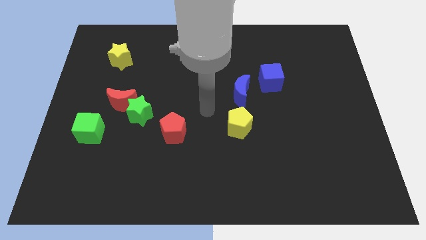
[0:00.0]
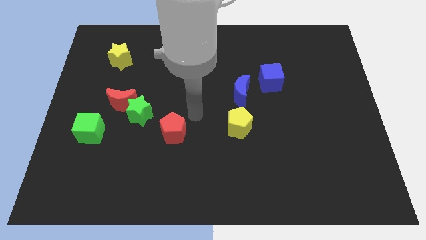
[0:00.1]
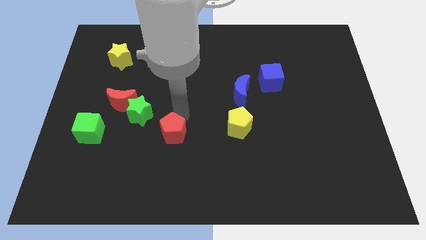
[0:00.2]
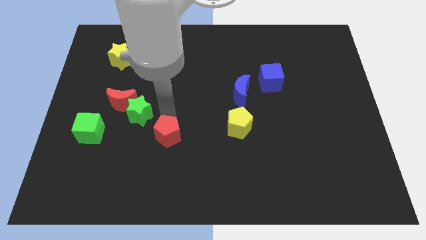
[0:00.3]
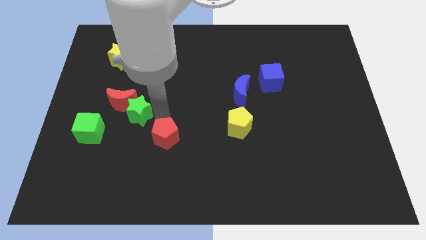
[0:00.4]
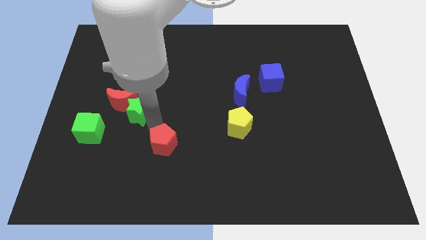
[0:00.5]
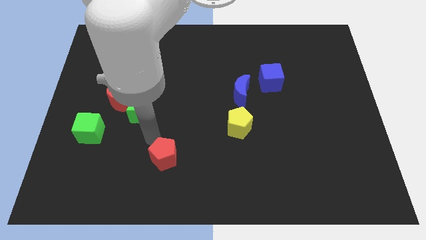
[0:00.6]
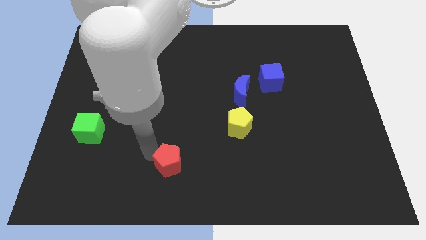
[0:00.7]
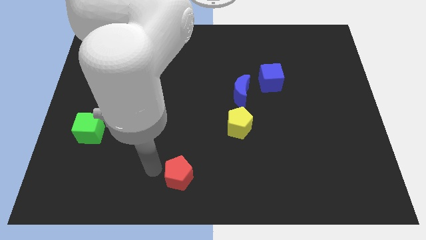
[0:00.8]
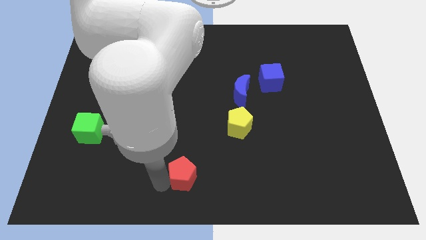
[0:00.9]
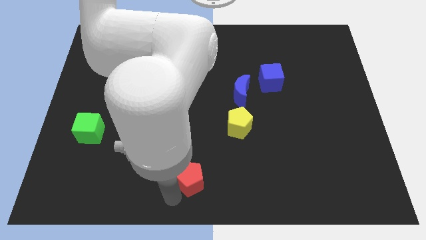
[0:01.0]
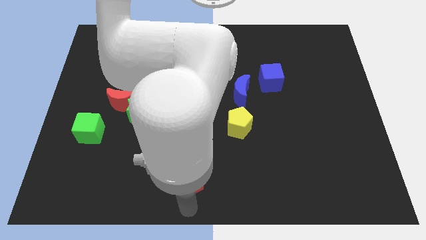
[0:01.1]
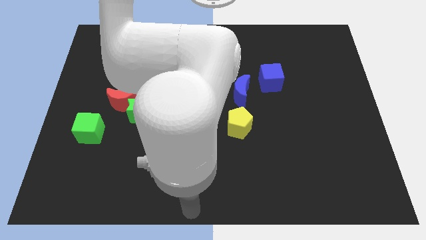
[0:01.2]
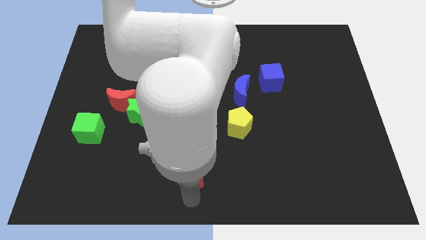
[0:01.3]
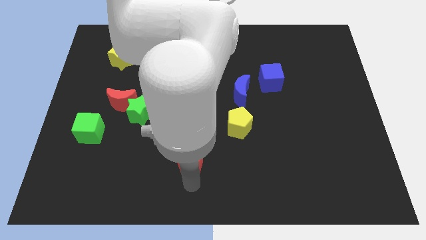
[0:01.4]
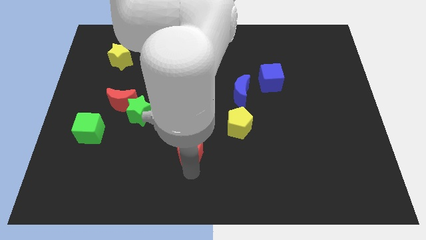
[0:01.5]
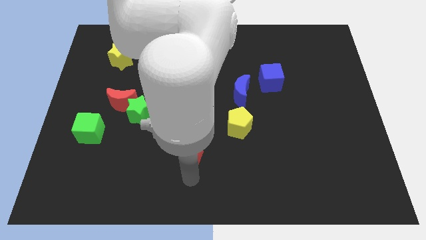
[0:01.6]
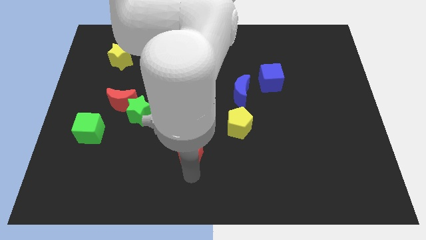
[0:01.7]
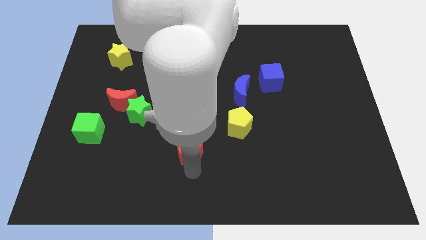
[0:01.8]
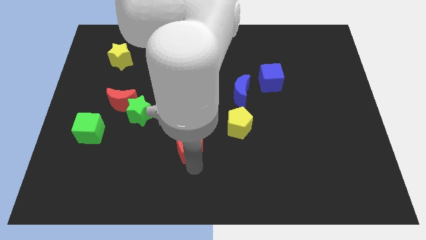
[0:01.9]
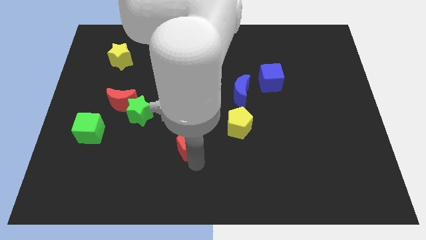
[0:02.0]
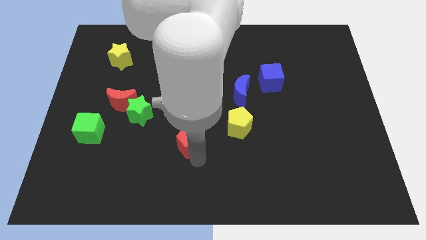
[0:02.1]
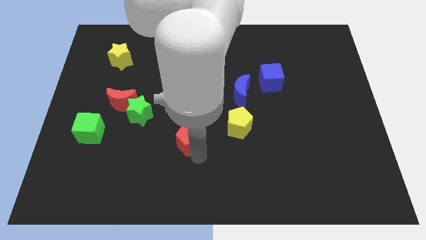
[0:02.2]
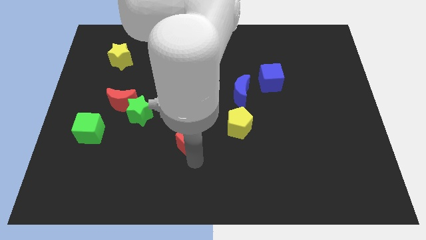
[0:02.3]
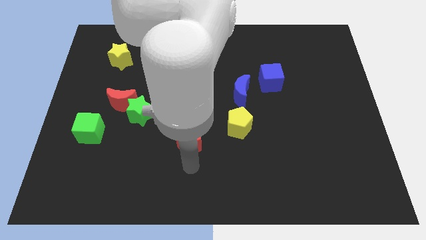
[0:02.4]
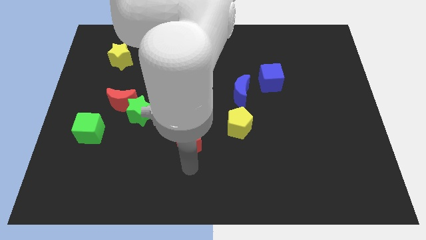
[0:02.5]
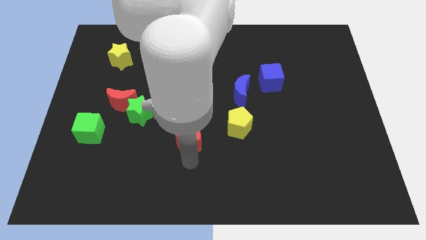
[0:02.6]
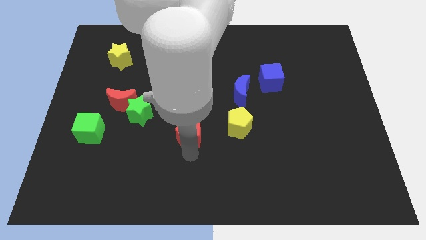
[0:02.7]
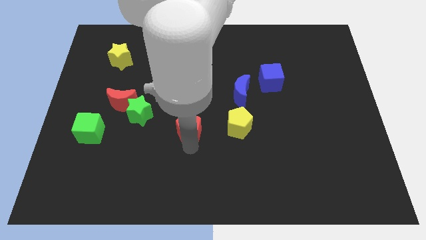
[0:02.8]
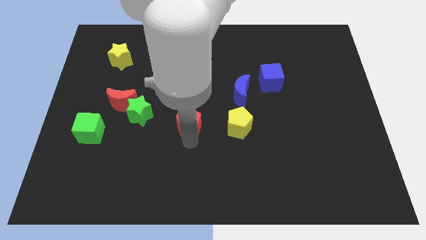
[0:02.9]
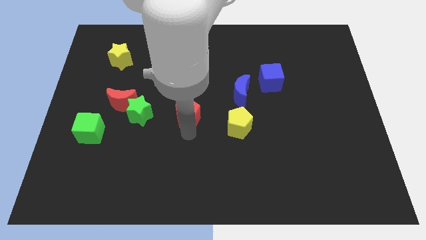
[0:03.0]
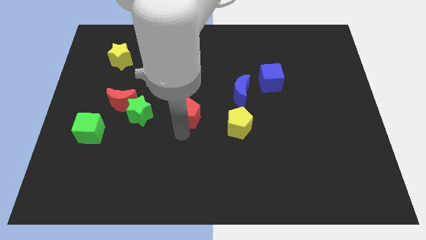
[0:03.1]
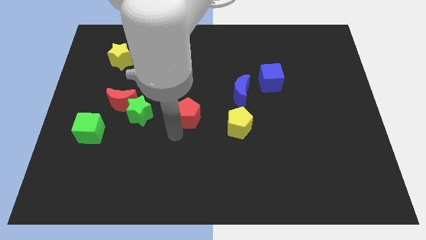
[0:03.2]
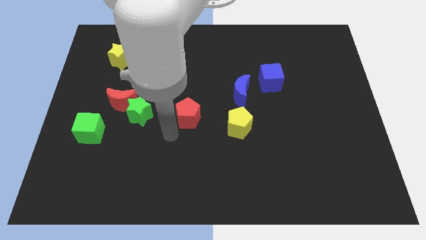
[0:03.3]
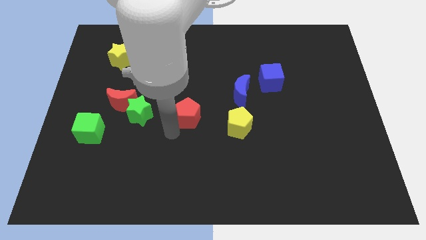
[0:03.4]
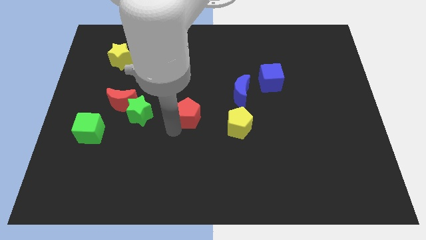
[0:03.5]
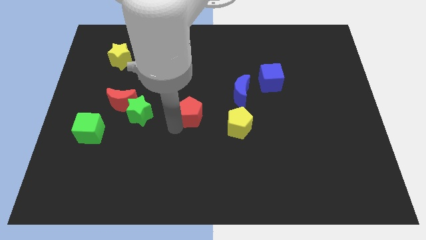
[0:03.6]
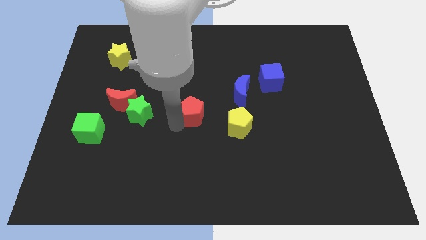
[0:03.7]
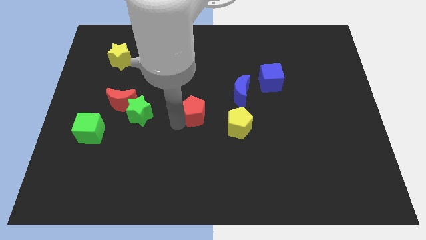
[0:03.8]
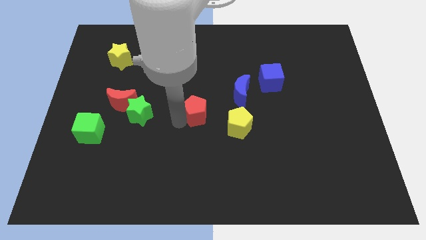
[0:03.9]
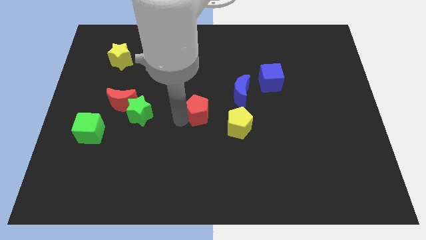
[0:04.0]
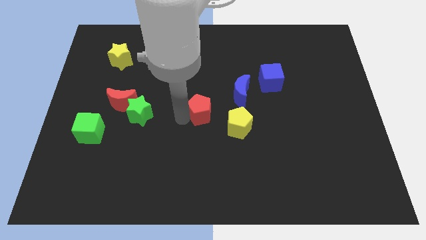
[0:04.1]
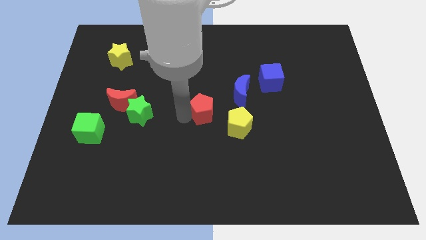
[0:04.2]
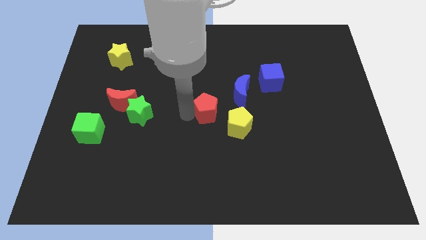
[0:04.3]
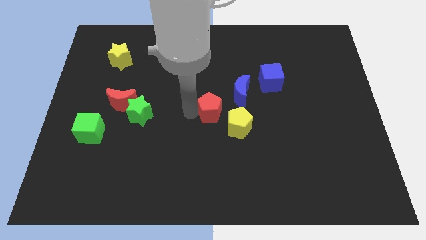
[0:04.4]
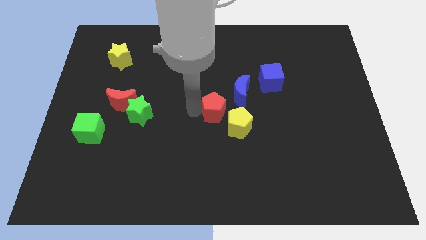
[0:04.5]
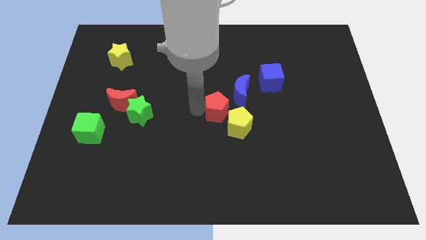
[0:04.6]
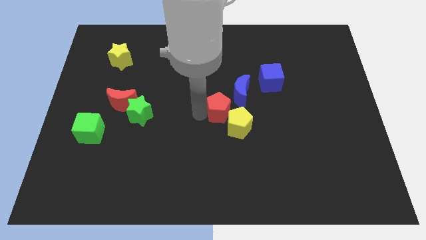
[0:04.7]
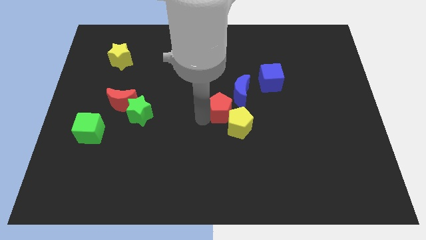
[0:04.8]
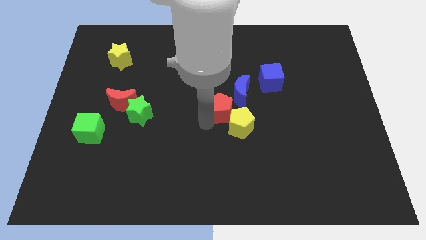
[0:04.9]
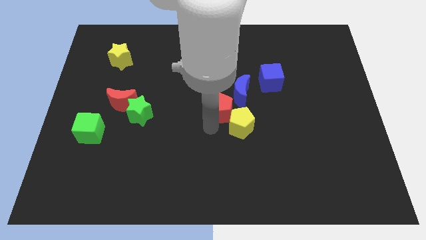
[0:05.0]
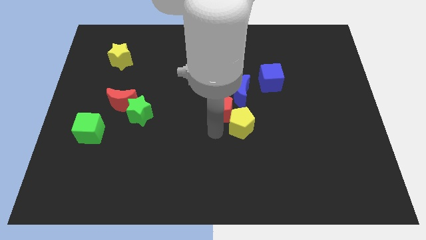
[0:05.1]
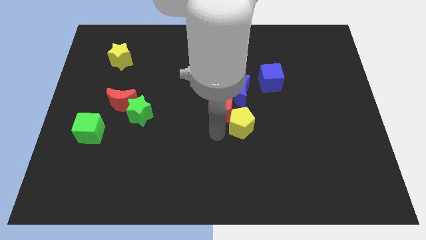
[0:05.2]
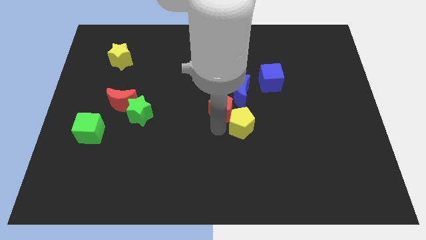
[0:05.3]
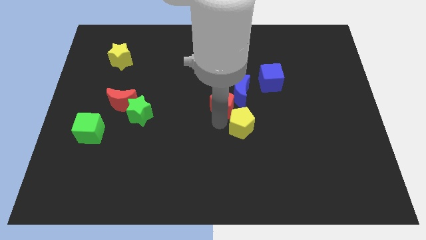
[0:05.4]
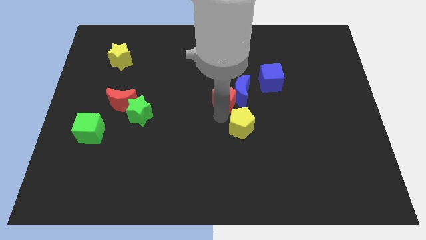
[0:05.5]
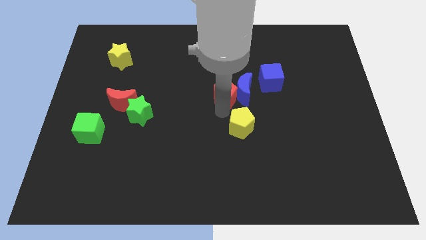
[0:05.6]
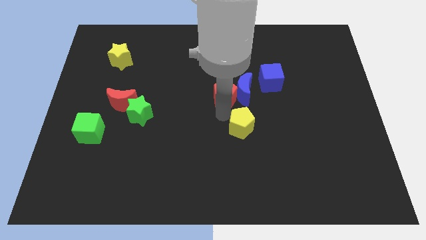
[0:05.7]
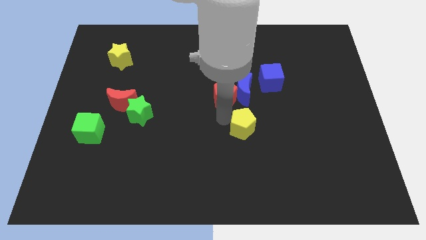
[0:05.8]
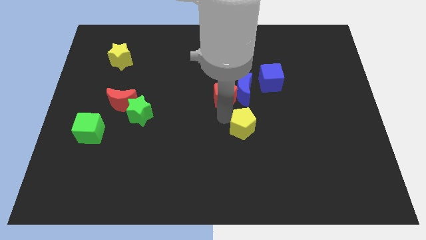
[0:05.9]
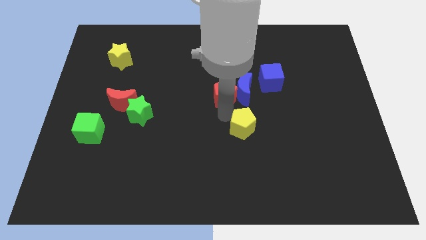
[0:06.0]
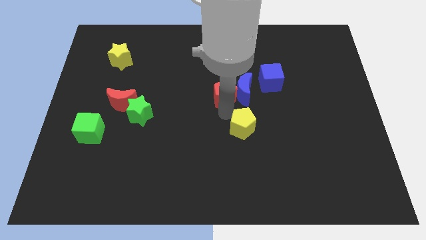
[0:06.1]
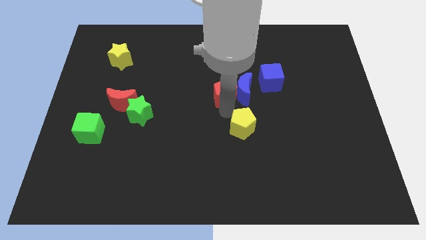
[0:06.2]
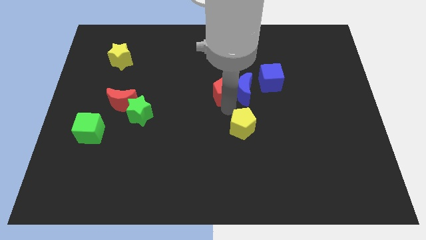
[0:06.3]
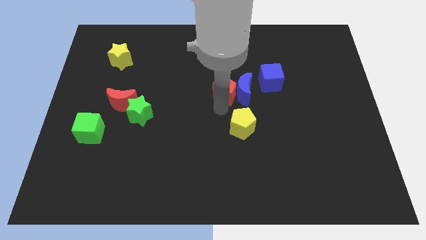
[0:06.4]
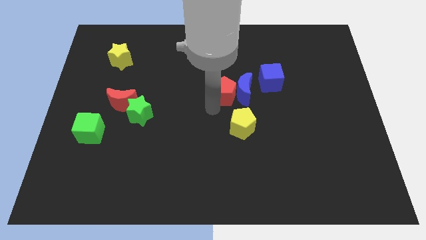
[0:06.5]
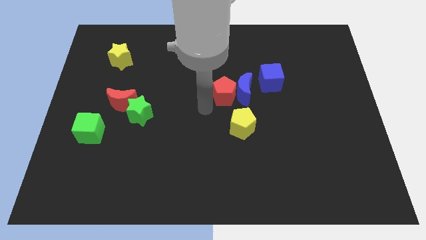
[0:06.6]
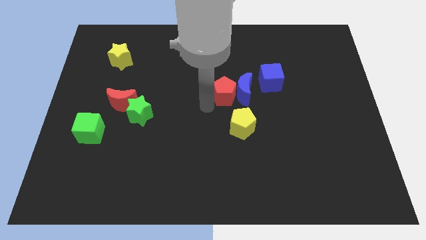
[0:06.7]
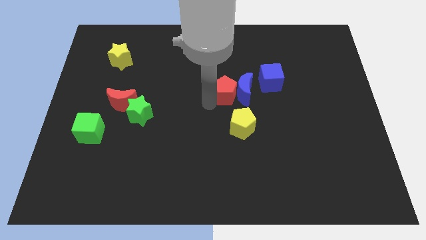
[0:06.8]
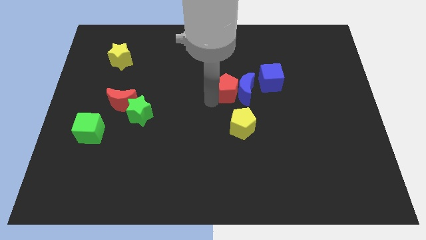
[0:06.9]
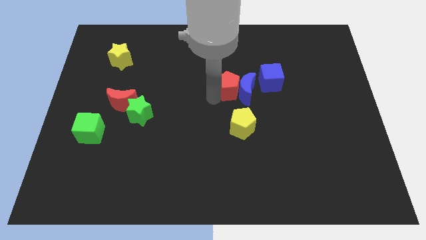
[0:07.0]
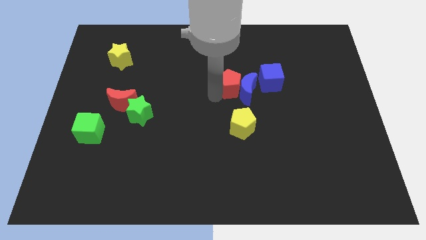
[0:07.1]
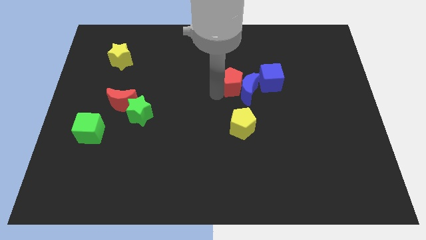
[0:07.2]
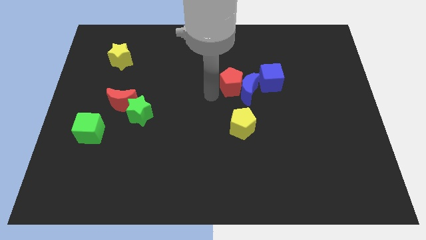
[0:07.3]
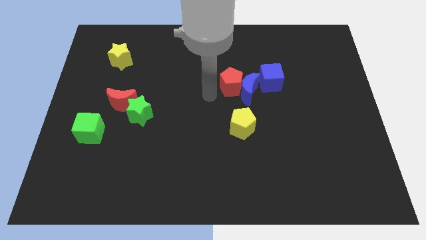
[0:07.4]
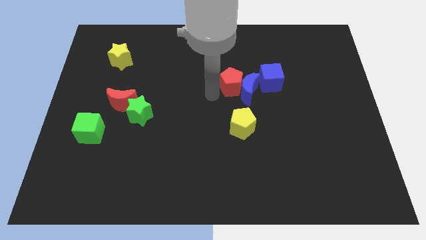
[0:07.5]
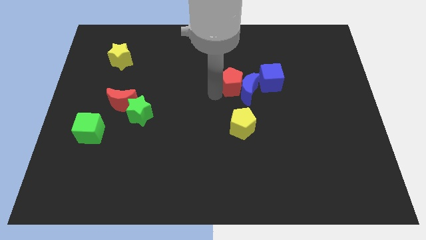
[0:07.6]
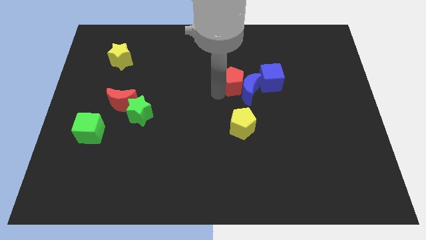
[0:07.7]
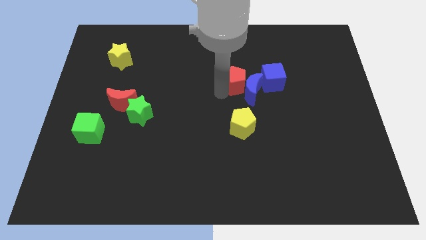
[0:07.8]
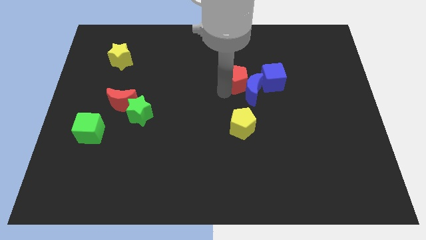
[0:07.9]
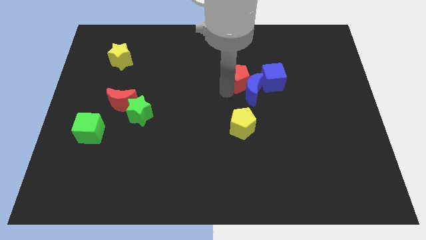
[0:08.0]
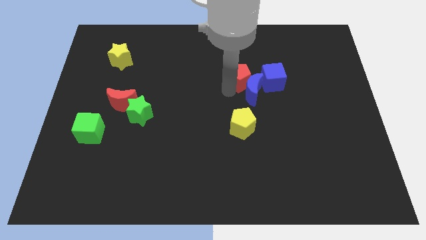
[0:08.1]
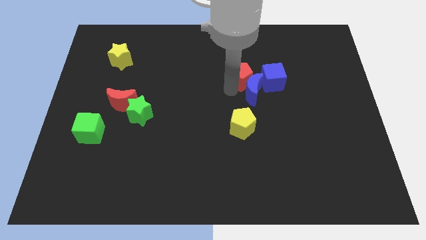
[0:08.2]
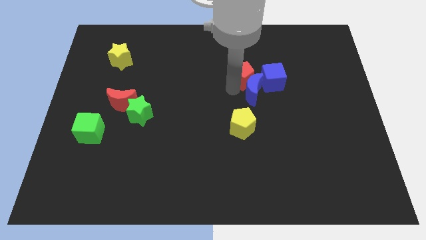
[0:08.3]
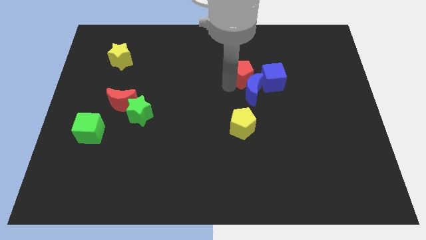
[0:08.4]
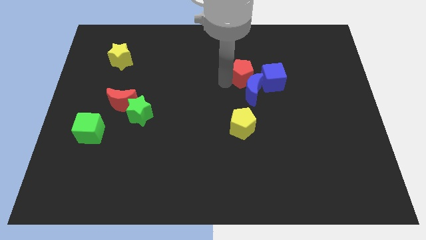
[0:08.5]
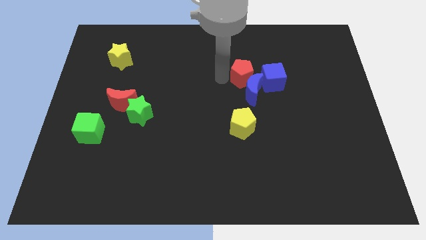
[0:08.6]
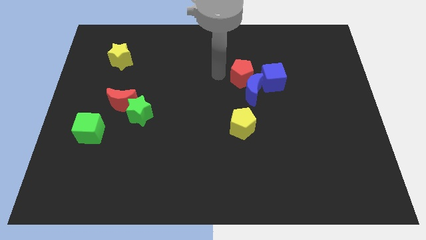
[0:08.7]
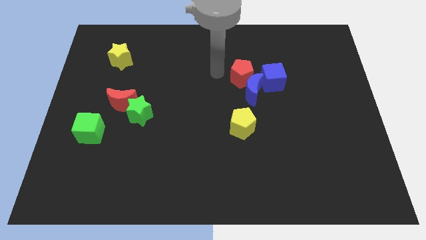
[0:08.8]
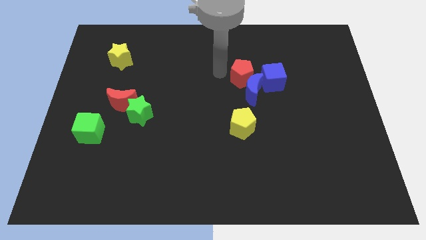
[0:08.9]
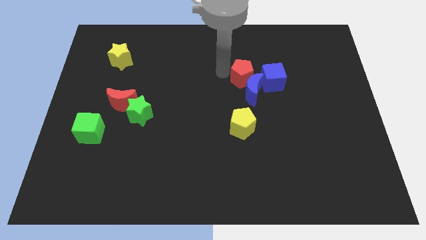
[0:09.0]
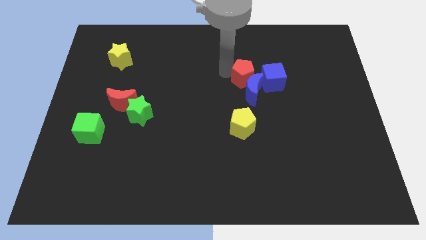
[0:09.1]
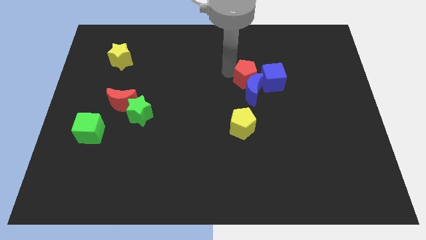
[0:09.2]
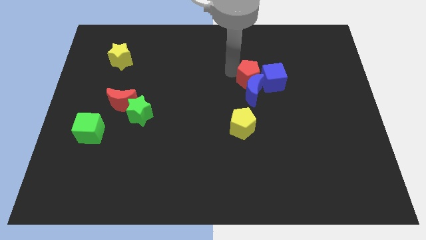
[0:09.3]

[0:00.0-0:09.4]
push the red pentagon towards the blue cube
